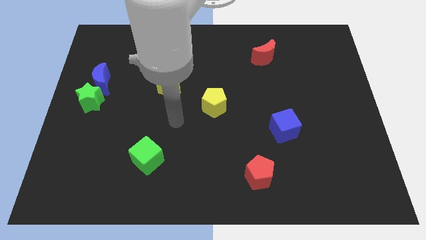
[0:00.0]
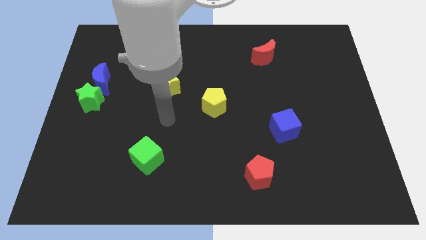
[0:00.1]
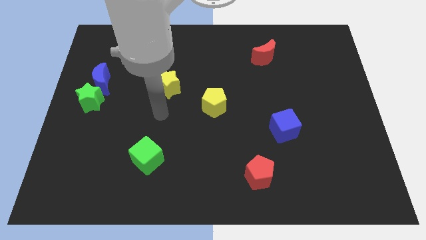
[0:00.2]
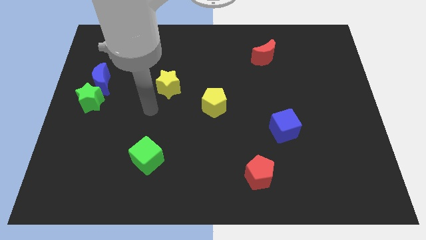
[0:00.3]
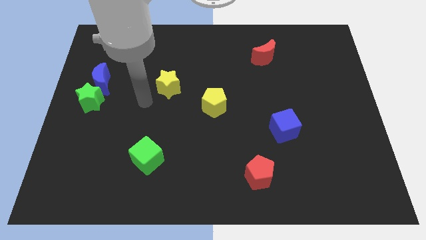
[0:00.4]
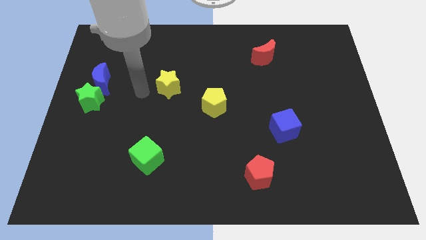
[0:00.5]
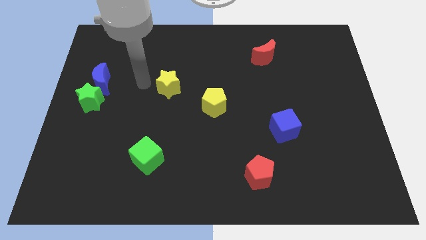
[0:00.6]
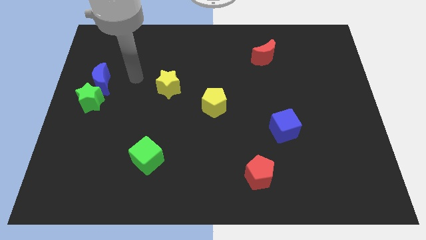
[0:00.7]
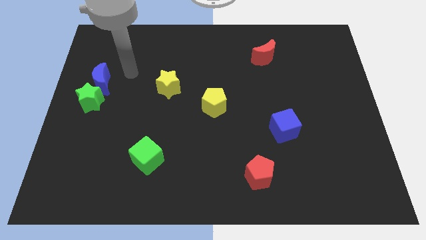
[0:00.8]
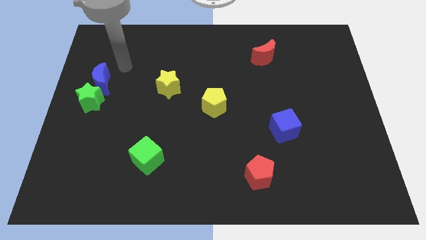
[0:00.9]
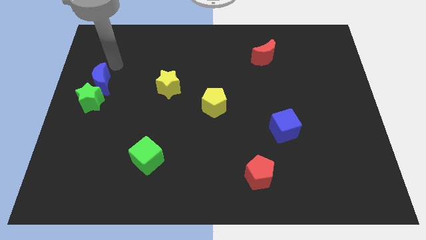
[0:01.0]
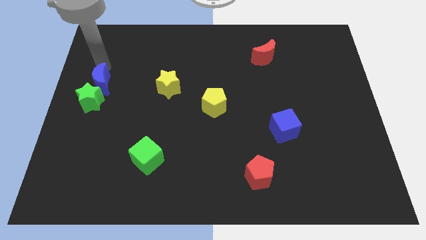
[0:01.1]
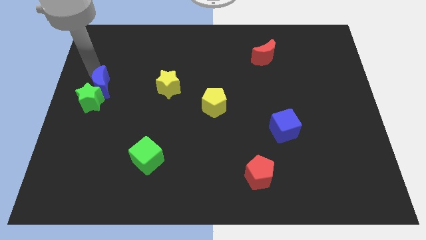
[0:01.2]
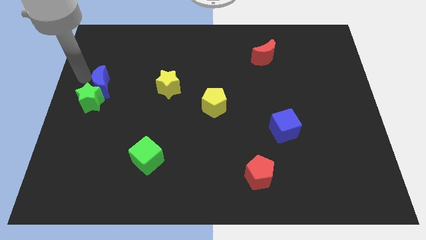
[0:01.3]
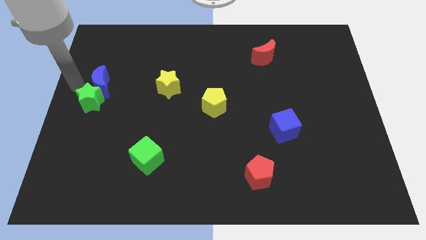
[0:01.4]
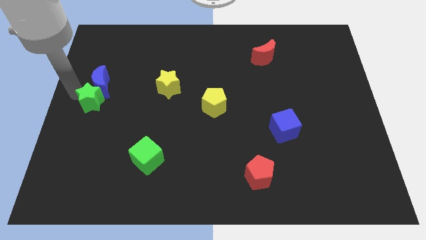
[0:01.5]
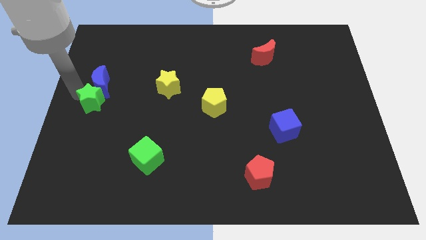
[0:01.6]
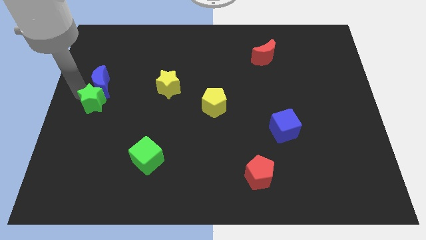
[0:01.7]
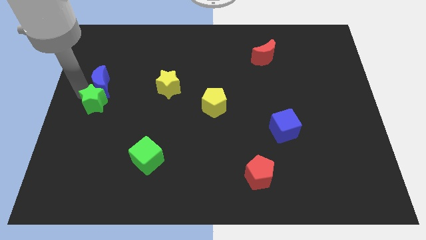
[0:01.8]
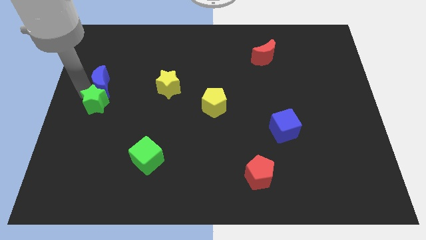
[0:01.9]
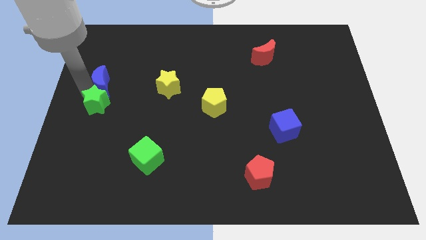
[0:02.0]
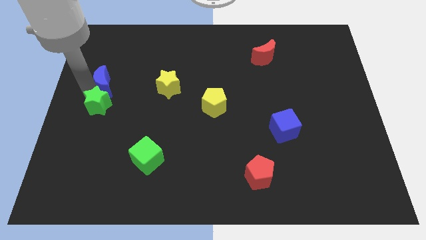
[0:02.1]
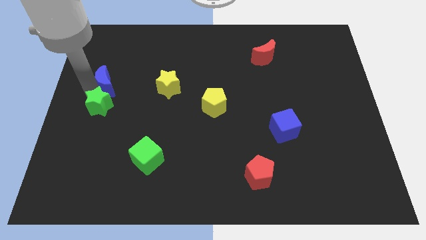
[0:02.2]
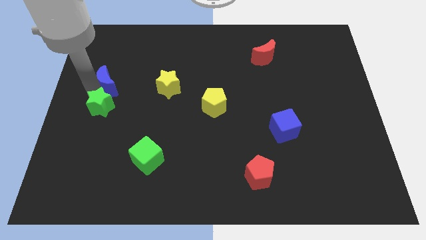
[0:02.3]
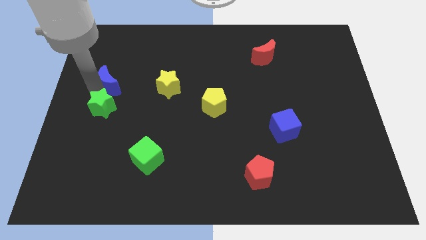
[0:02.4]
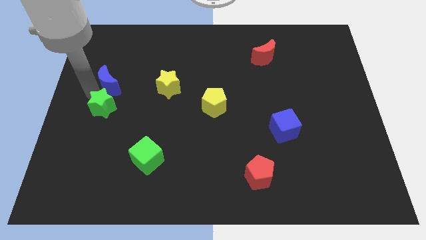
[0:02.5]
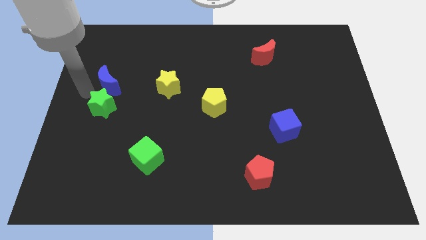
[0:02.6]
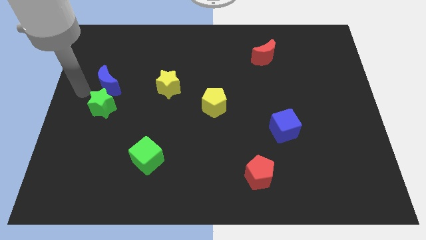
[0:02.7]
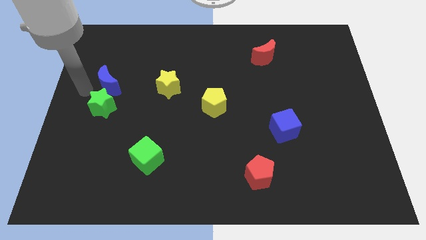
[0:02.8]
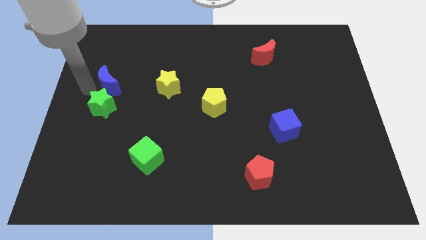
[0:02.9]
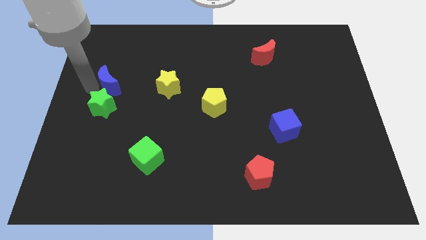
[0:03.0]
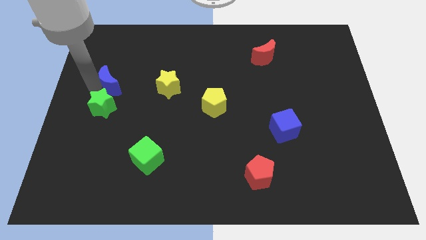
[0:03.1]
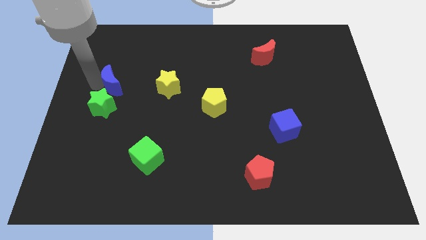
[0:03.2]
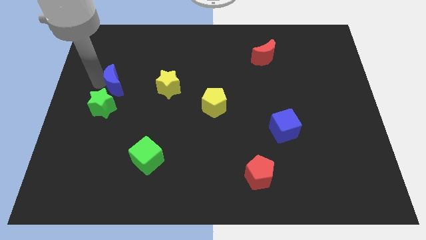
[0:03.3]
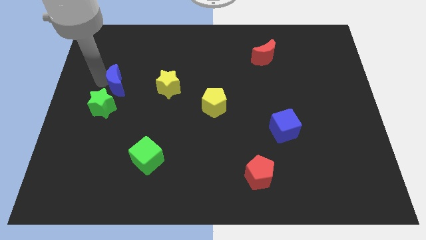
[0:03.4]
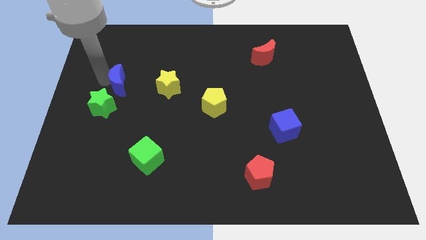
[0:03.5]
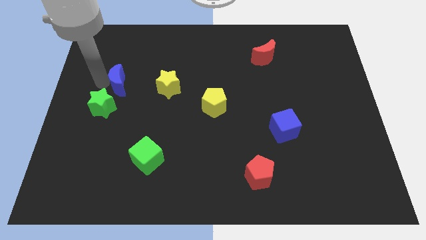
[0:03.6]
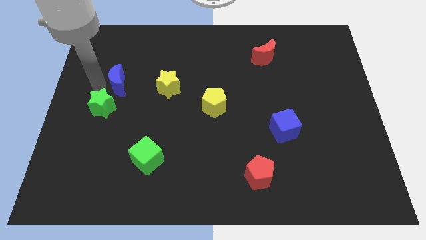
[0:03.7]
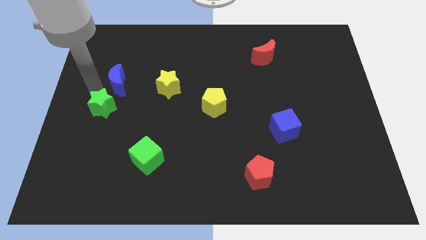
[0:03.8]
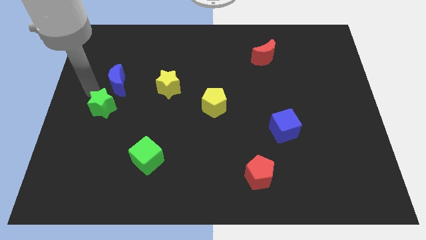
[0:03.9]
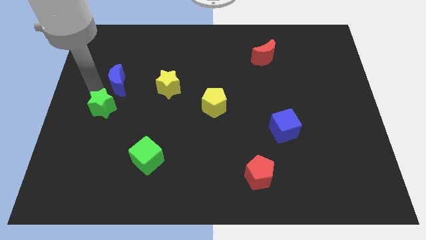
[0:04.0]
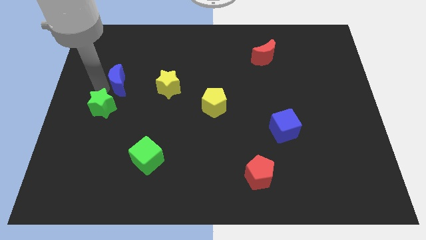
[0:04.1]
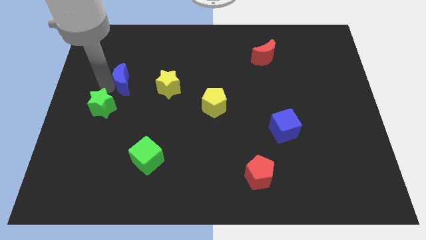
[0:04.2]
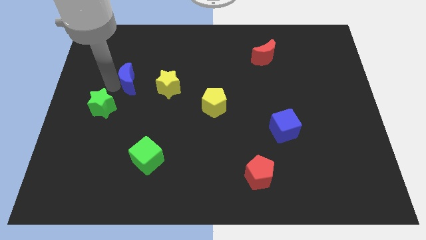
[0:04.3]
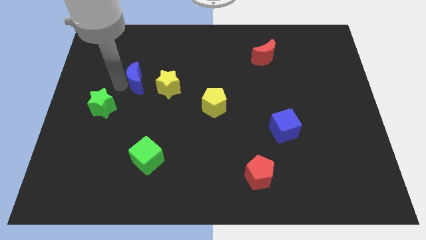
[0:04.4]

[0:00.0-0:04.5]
move the blue moon diagonally up and to the left of the yellow star

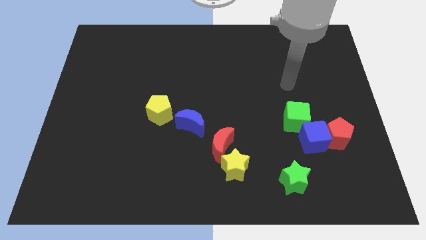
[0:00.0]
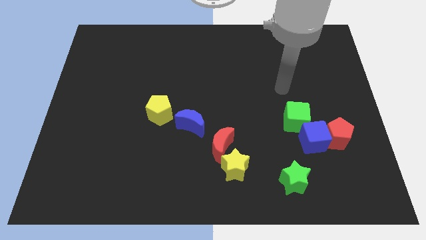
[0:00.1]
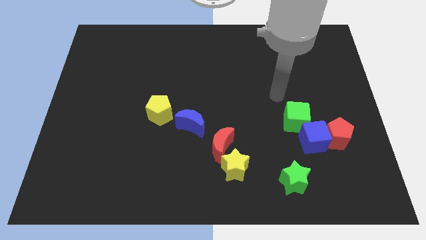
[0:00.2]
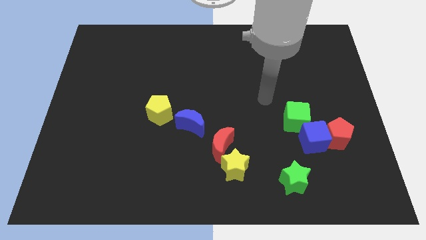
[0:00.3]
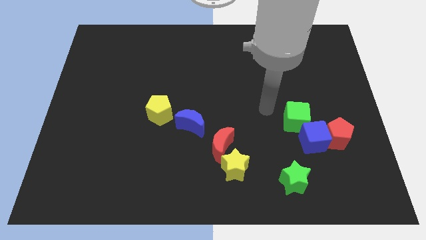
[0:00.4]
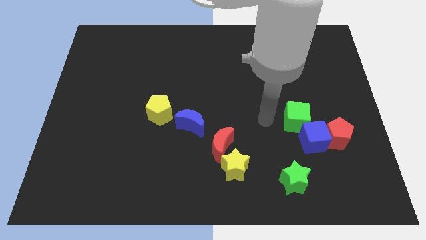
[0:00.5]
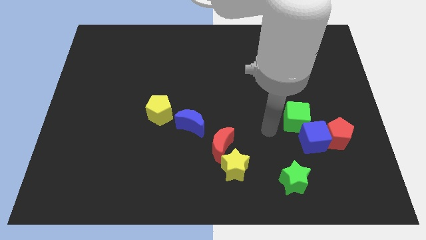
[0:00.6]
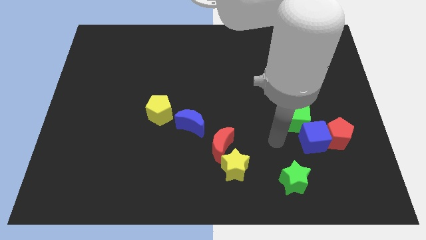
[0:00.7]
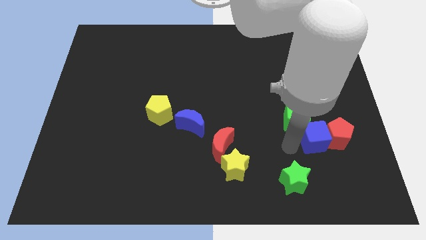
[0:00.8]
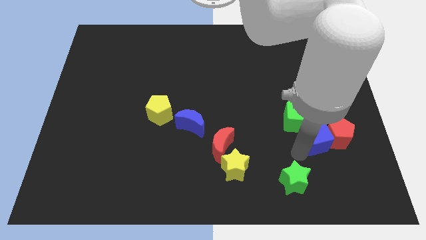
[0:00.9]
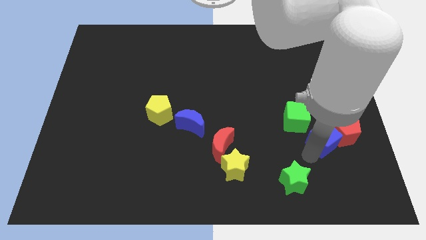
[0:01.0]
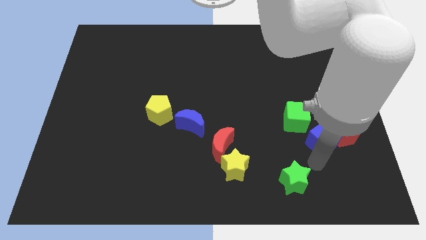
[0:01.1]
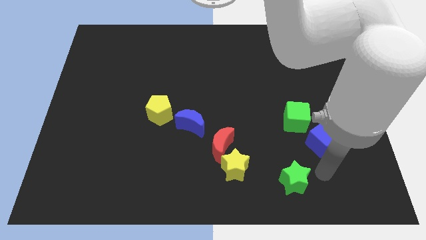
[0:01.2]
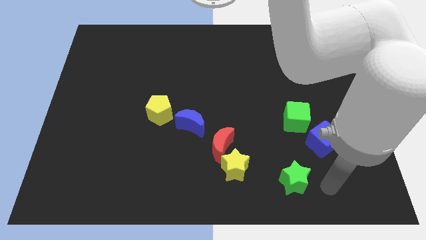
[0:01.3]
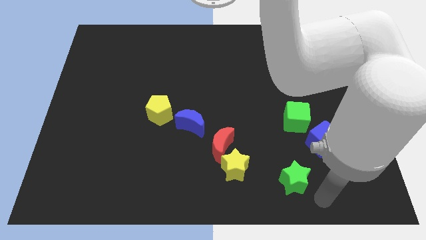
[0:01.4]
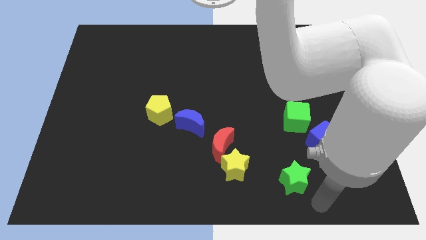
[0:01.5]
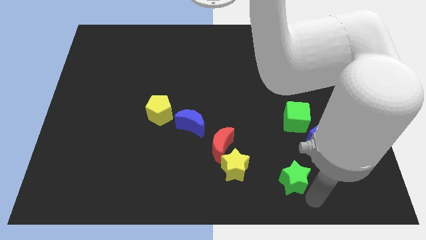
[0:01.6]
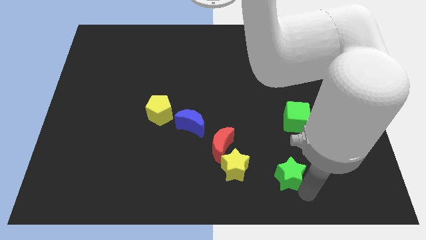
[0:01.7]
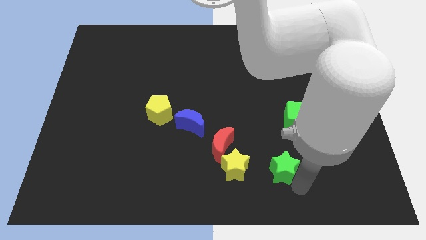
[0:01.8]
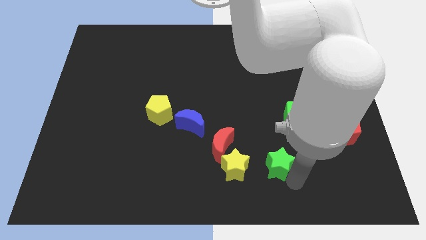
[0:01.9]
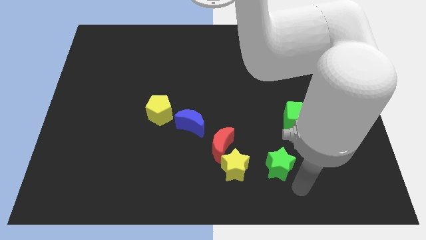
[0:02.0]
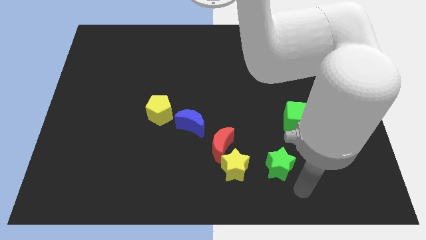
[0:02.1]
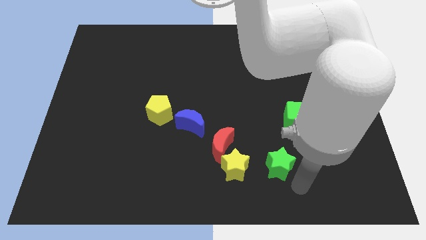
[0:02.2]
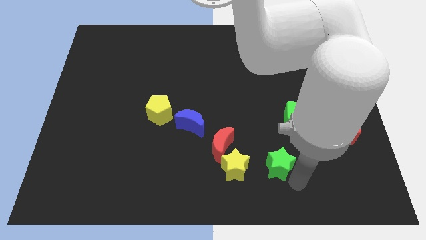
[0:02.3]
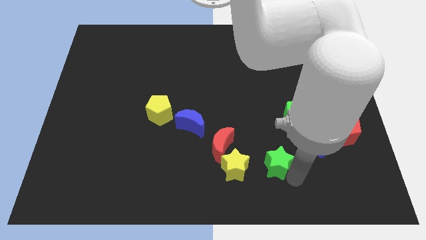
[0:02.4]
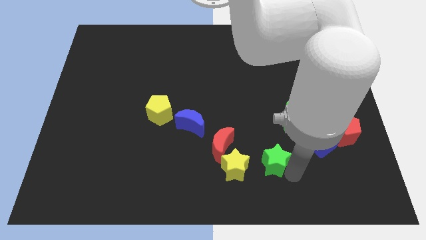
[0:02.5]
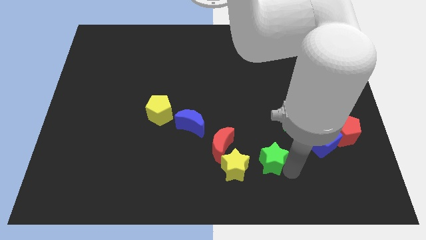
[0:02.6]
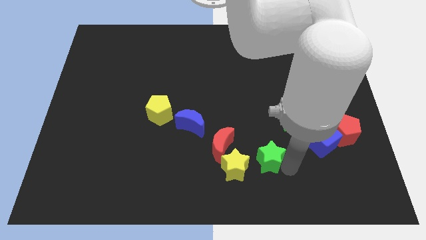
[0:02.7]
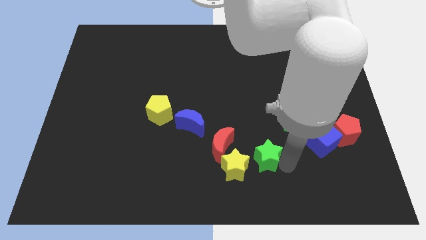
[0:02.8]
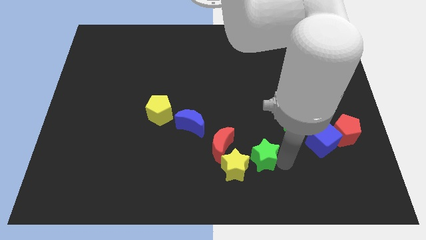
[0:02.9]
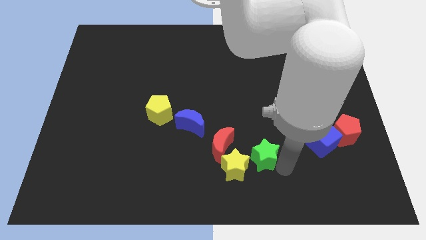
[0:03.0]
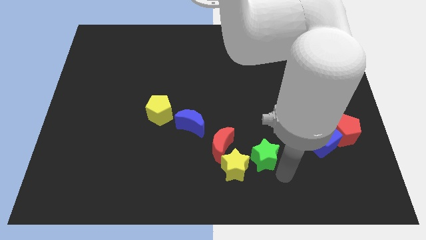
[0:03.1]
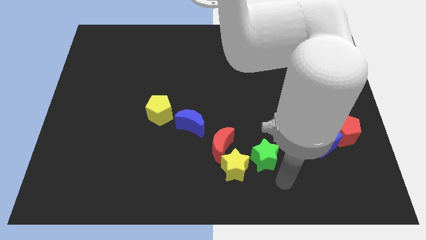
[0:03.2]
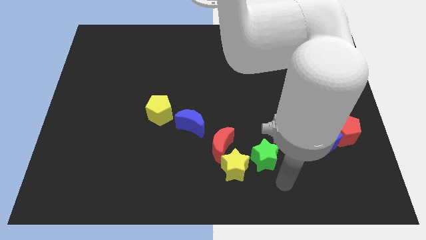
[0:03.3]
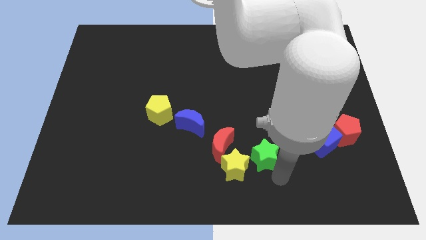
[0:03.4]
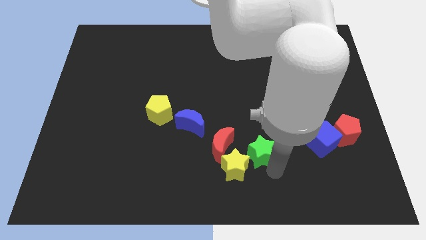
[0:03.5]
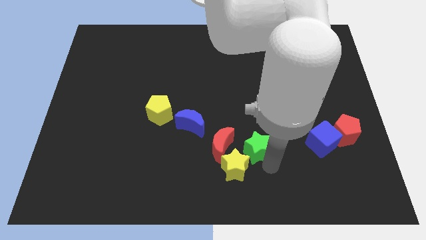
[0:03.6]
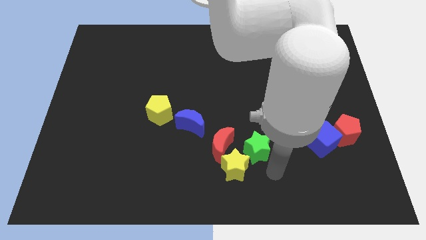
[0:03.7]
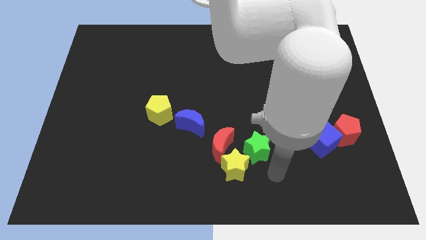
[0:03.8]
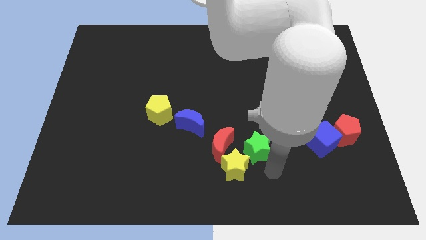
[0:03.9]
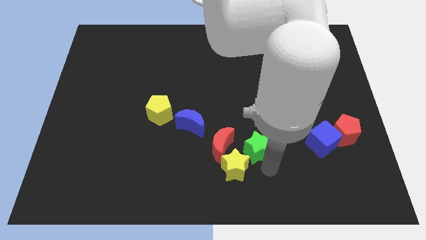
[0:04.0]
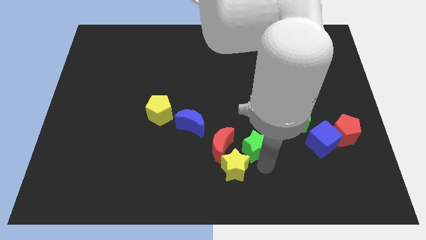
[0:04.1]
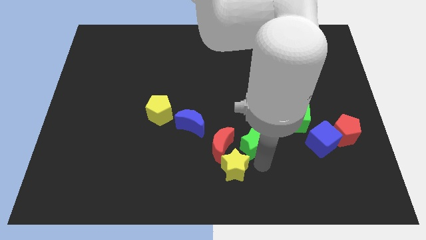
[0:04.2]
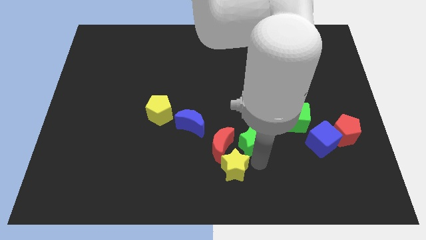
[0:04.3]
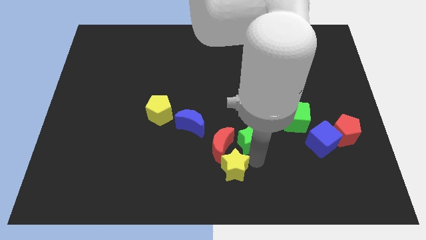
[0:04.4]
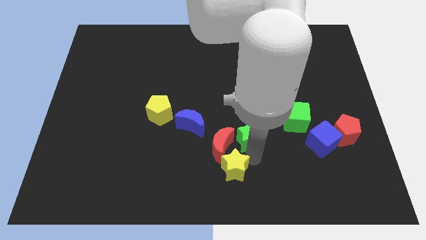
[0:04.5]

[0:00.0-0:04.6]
push the green star to the right of the blue moon
